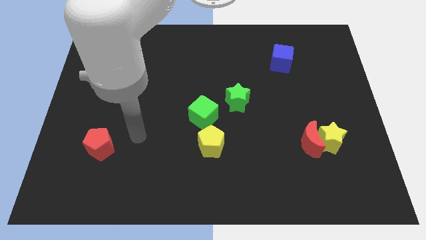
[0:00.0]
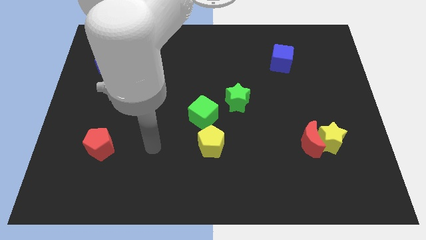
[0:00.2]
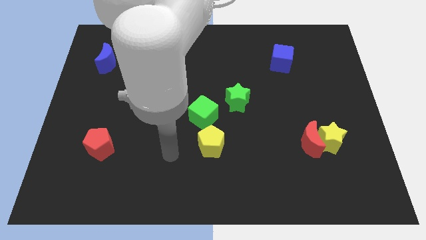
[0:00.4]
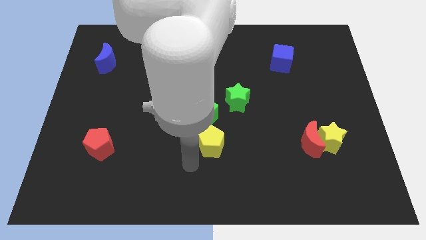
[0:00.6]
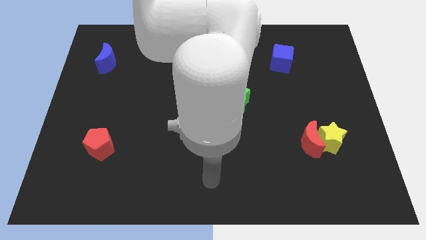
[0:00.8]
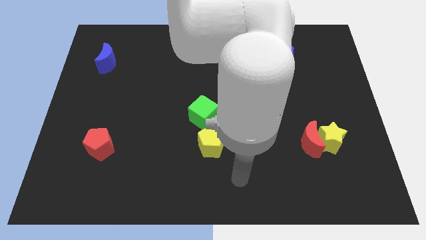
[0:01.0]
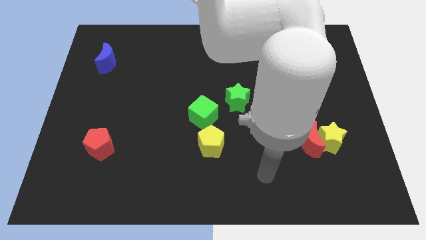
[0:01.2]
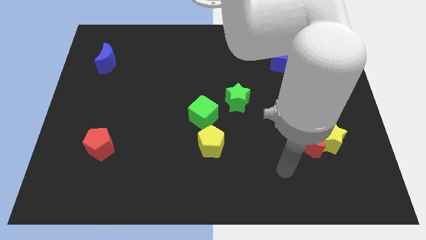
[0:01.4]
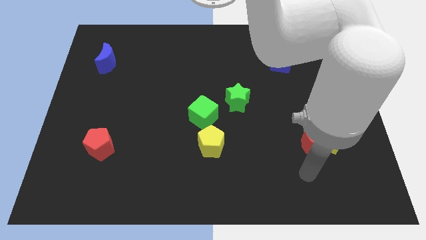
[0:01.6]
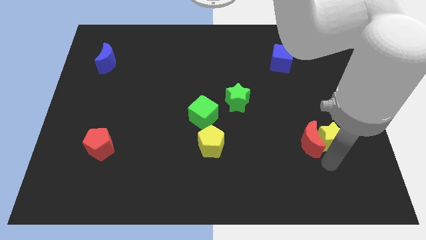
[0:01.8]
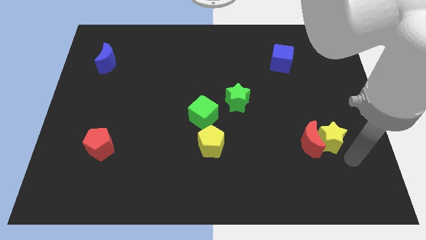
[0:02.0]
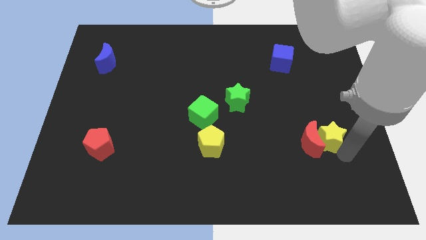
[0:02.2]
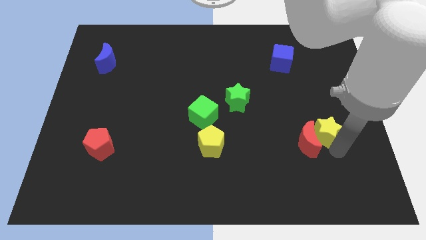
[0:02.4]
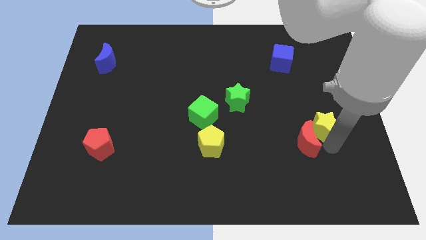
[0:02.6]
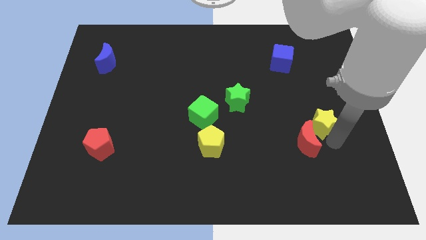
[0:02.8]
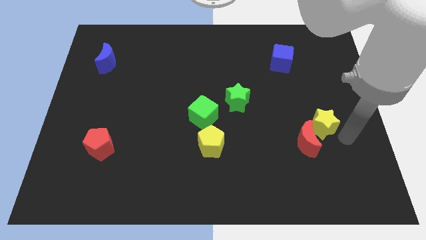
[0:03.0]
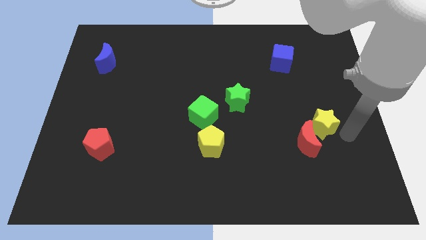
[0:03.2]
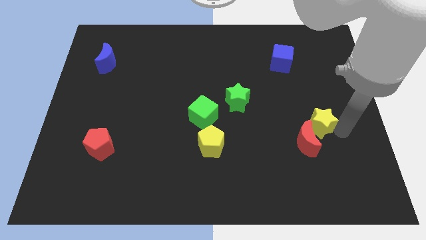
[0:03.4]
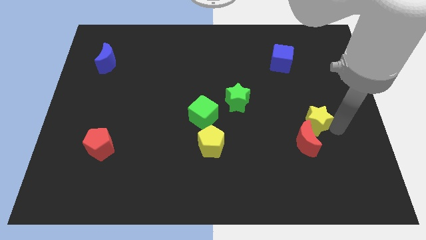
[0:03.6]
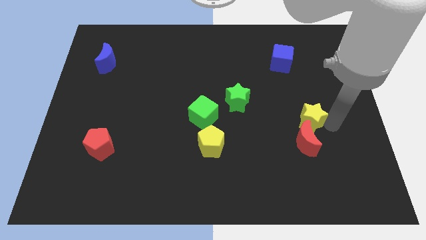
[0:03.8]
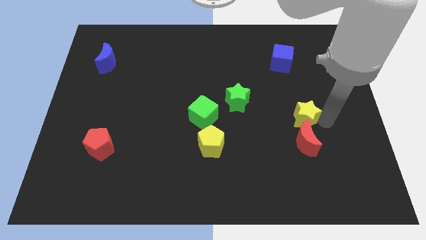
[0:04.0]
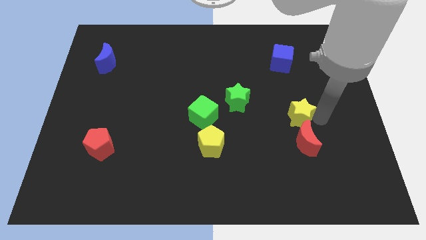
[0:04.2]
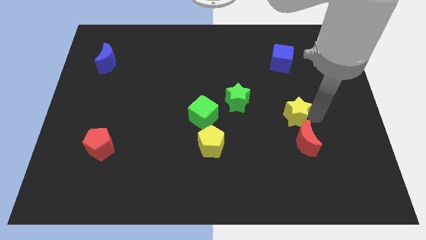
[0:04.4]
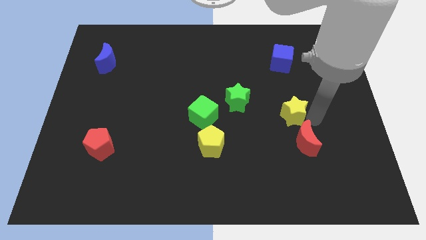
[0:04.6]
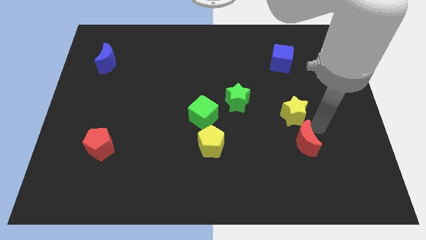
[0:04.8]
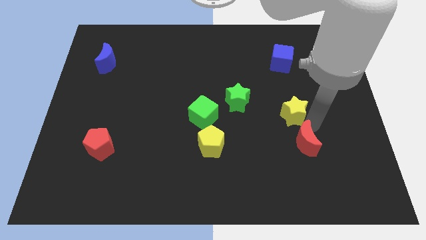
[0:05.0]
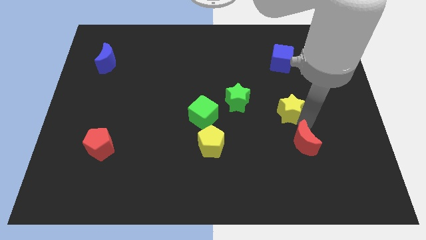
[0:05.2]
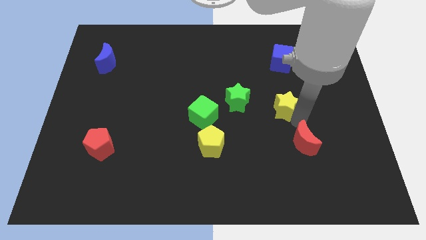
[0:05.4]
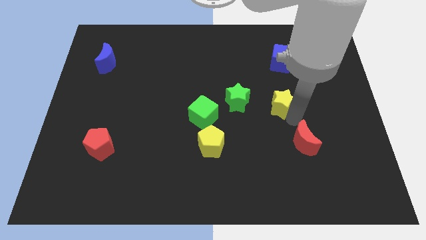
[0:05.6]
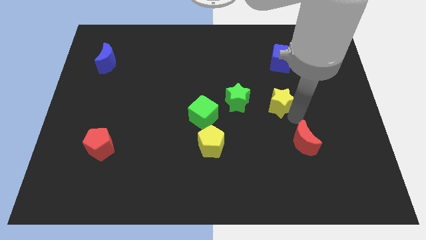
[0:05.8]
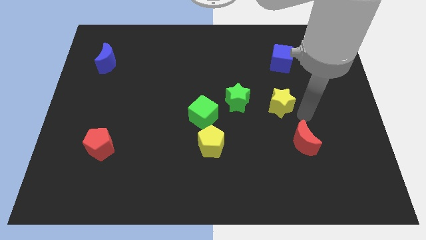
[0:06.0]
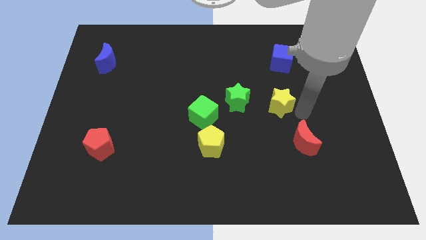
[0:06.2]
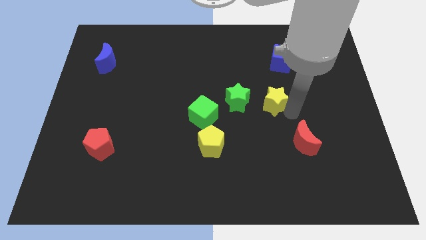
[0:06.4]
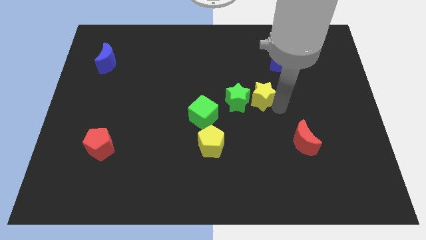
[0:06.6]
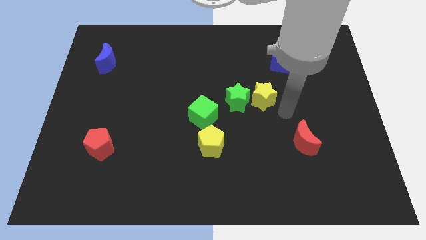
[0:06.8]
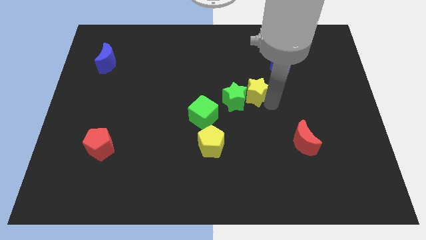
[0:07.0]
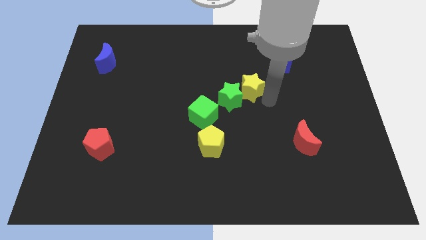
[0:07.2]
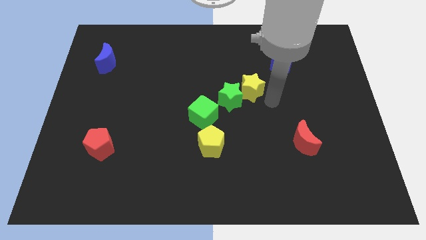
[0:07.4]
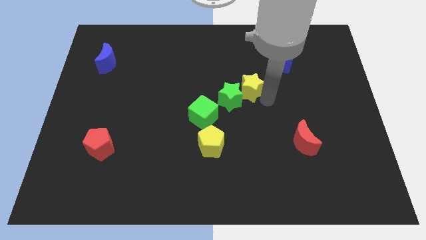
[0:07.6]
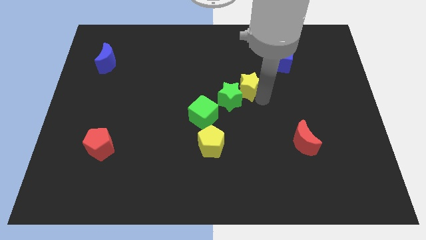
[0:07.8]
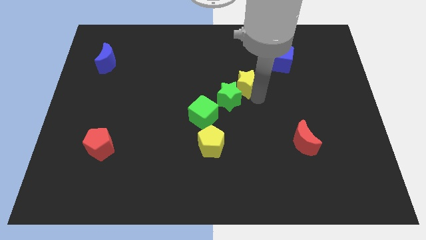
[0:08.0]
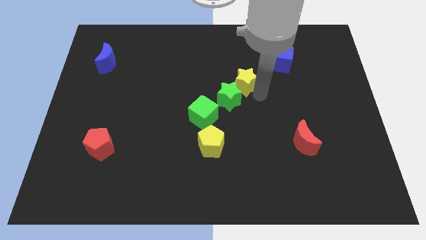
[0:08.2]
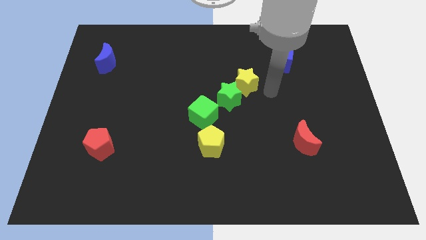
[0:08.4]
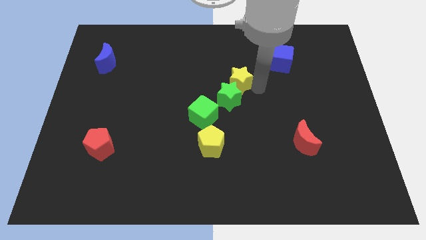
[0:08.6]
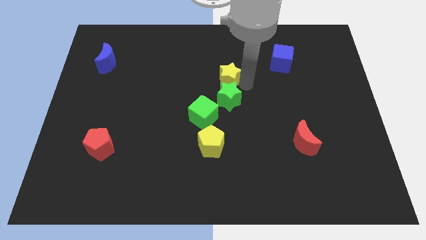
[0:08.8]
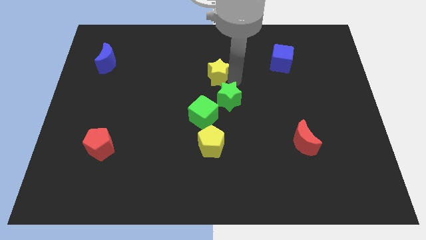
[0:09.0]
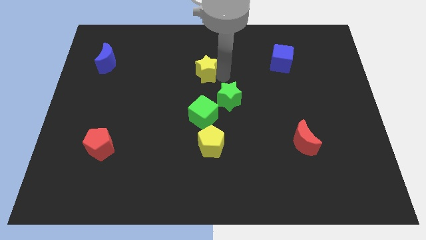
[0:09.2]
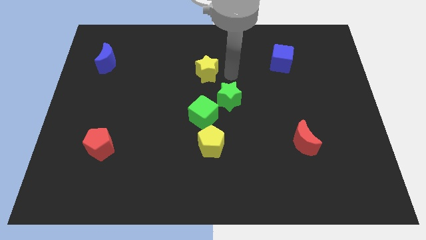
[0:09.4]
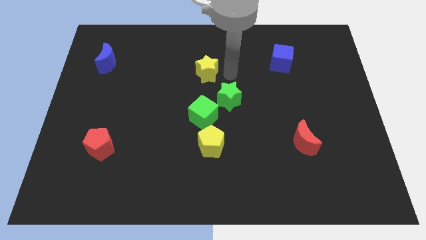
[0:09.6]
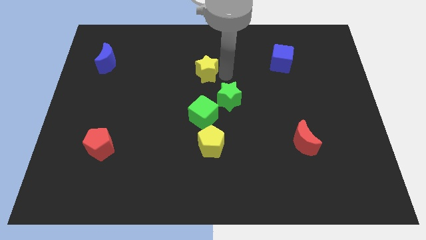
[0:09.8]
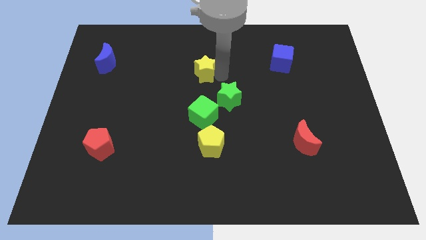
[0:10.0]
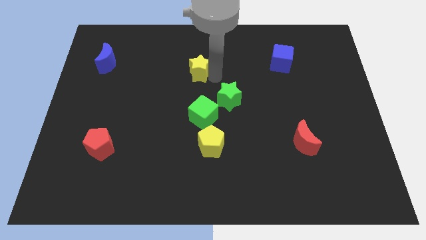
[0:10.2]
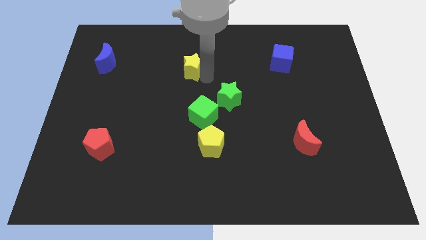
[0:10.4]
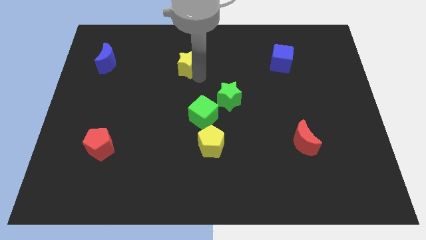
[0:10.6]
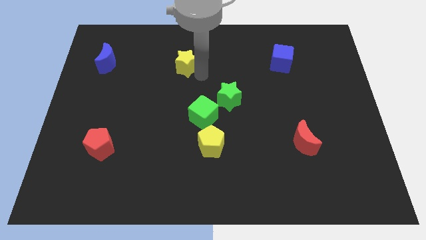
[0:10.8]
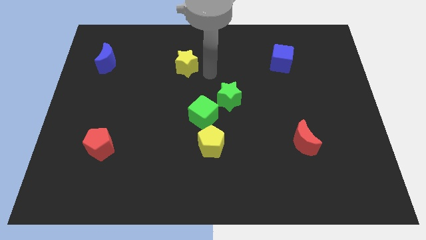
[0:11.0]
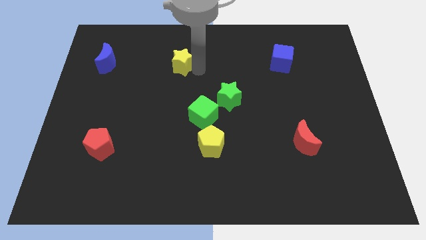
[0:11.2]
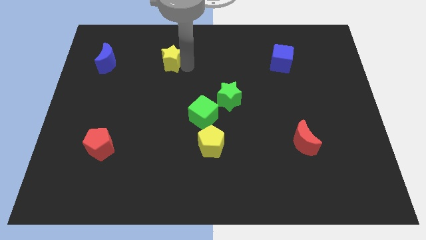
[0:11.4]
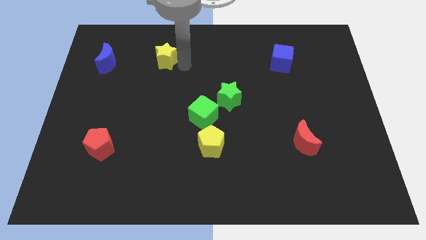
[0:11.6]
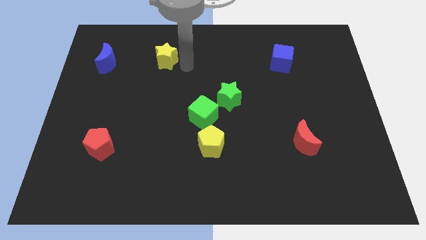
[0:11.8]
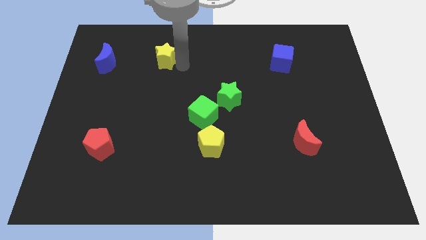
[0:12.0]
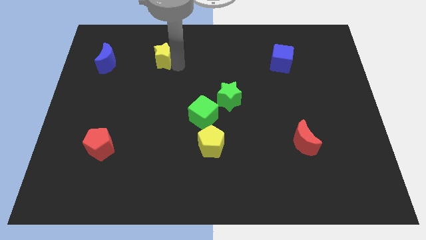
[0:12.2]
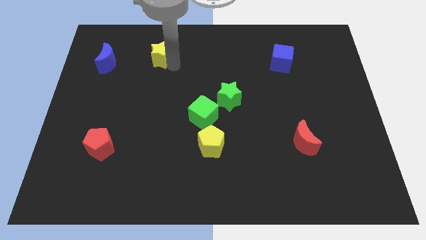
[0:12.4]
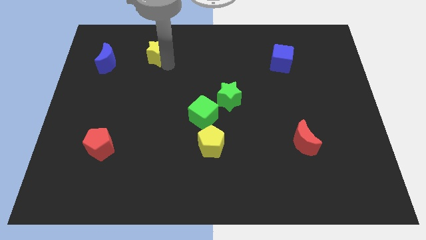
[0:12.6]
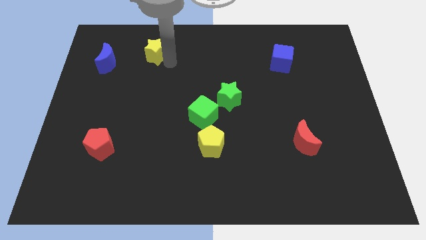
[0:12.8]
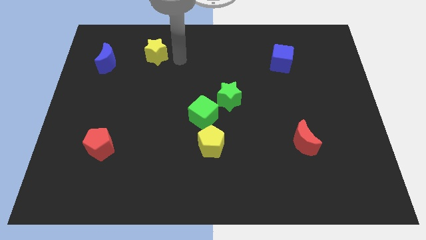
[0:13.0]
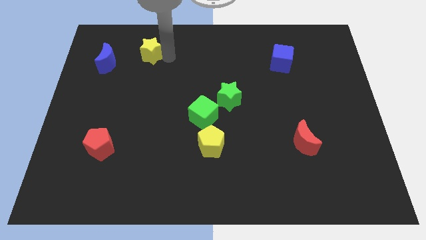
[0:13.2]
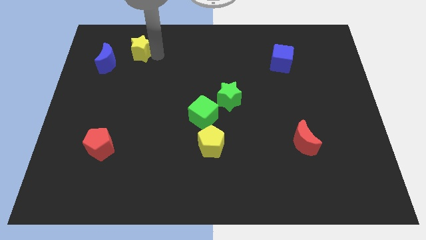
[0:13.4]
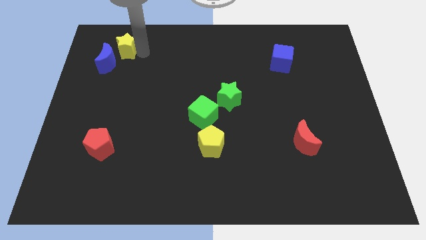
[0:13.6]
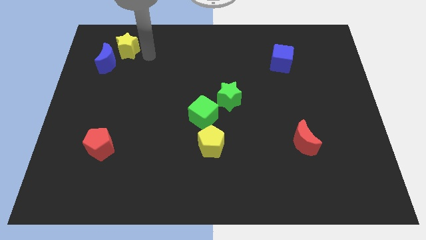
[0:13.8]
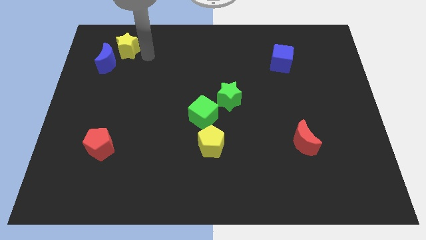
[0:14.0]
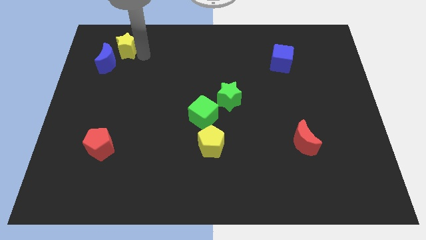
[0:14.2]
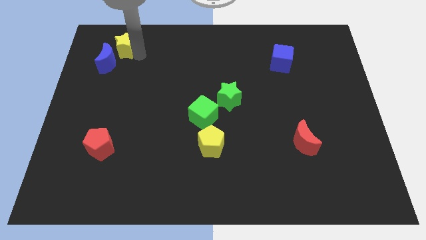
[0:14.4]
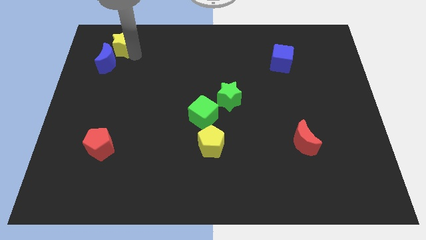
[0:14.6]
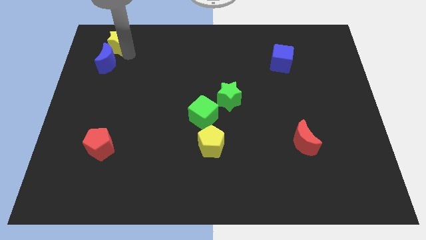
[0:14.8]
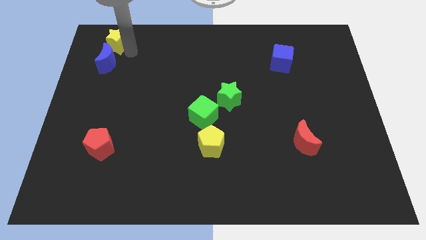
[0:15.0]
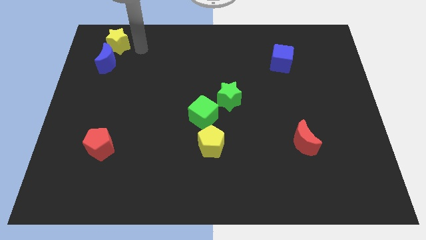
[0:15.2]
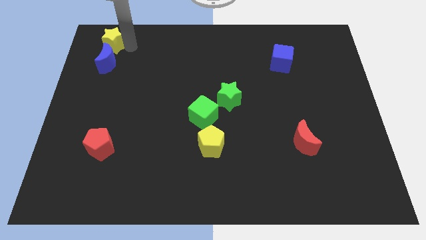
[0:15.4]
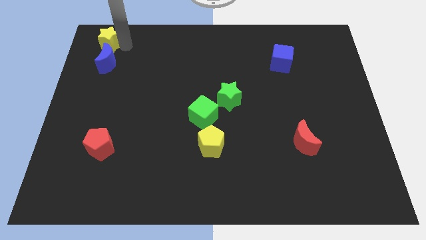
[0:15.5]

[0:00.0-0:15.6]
slide the yellow star to the top left corner

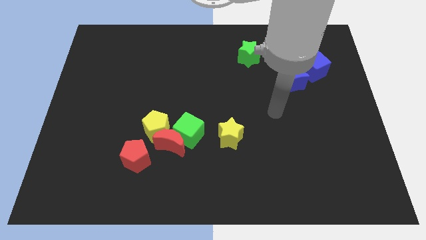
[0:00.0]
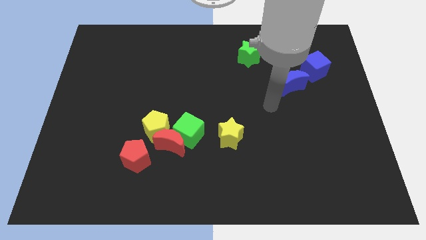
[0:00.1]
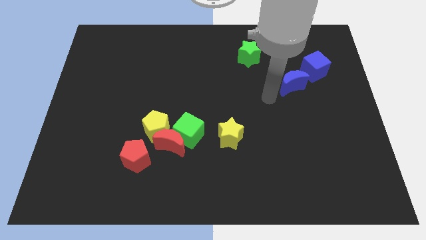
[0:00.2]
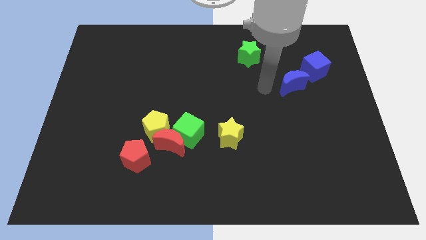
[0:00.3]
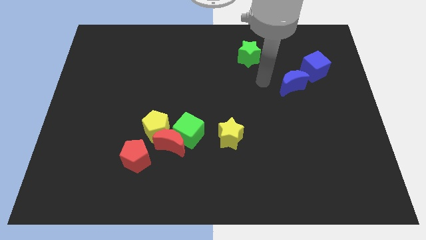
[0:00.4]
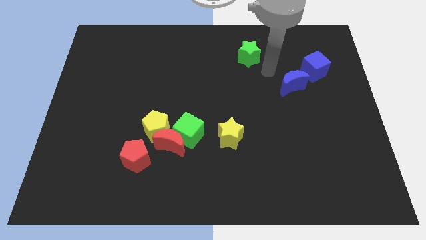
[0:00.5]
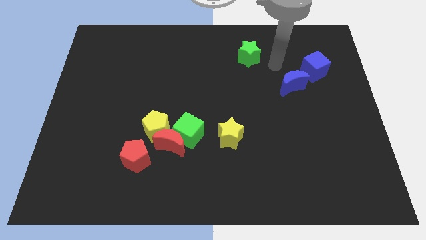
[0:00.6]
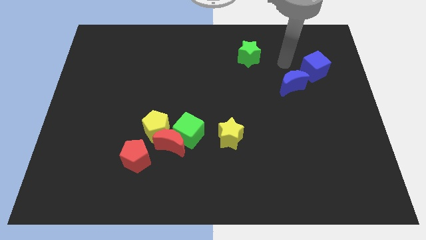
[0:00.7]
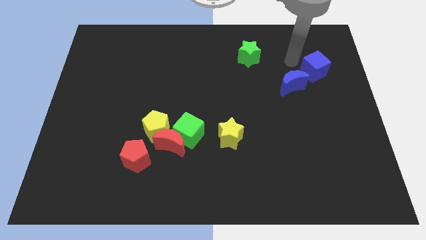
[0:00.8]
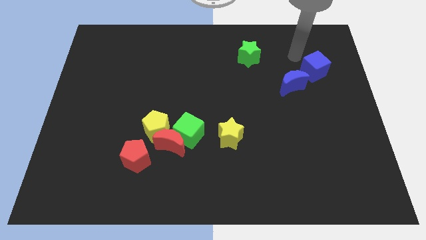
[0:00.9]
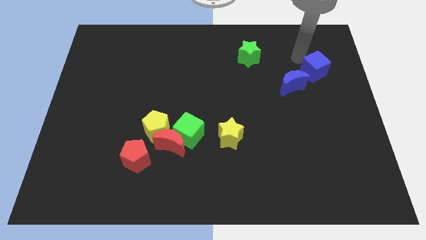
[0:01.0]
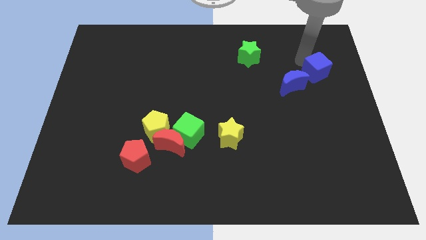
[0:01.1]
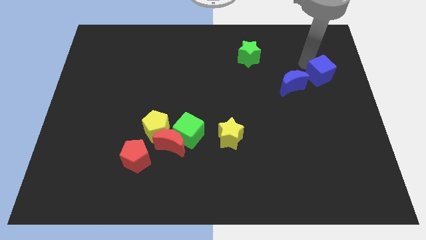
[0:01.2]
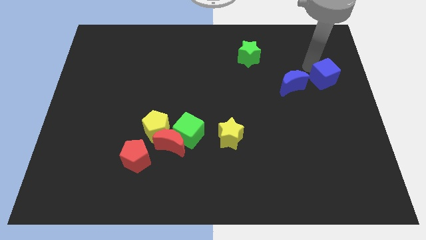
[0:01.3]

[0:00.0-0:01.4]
push the blue cube to the right side of the board
